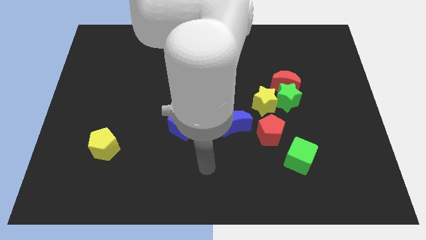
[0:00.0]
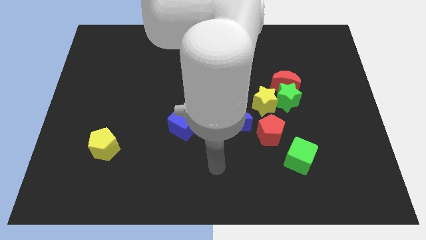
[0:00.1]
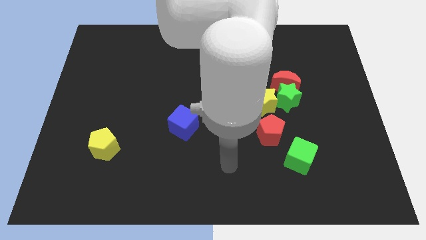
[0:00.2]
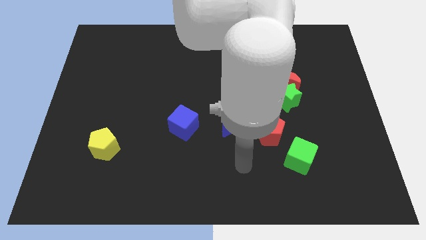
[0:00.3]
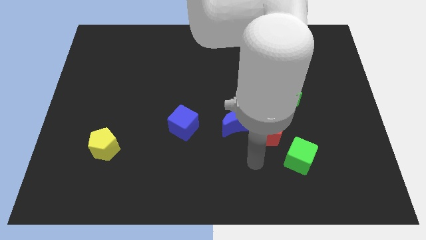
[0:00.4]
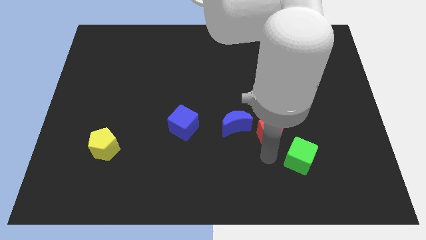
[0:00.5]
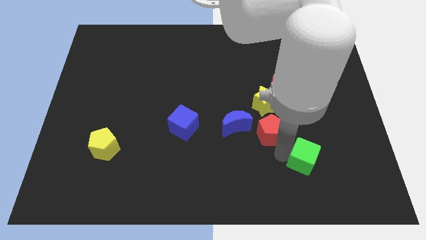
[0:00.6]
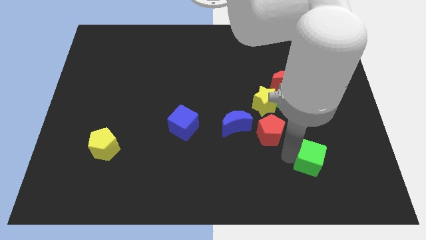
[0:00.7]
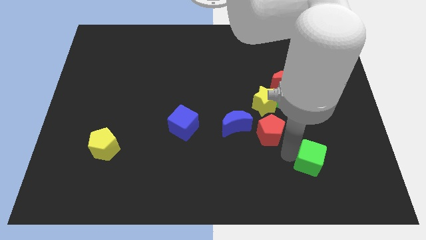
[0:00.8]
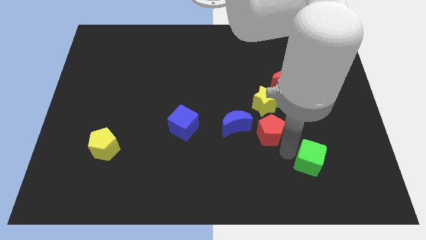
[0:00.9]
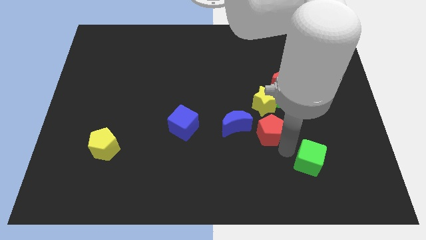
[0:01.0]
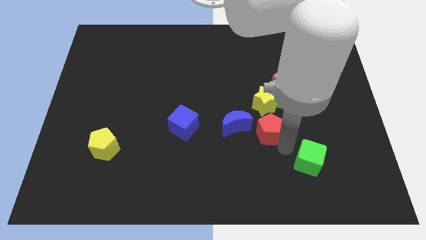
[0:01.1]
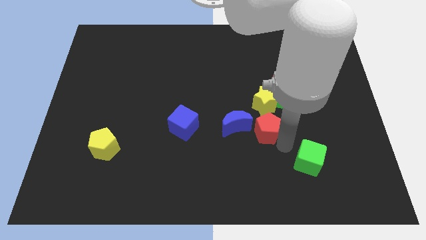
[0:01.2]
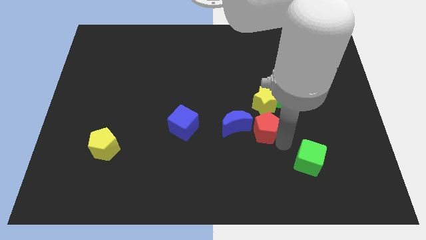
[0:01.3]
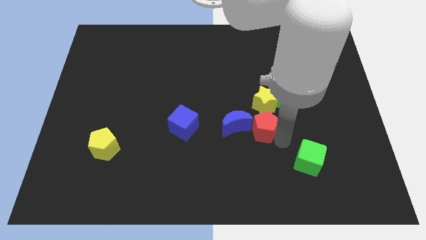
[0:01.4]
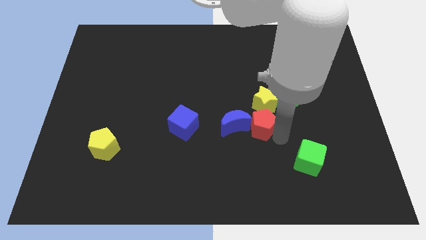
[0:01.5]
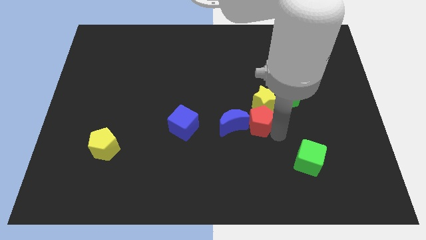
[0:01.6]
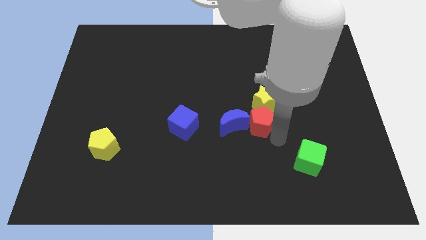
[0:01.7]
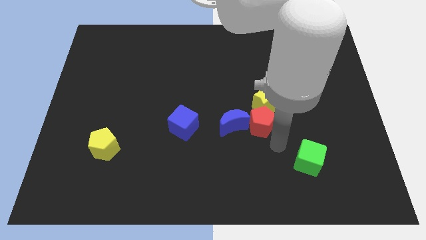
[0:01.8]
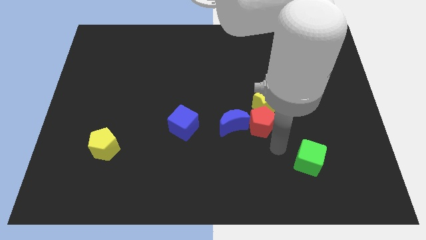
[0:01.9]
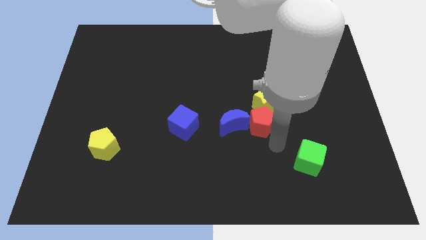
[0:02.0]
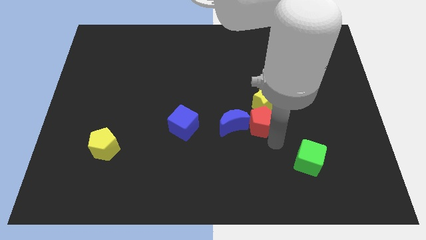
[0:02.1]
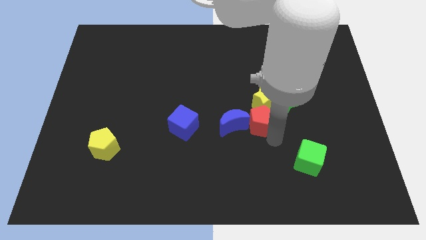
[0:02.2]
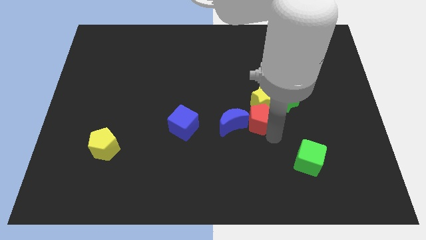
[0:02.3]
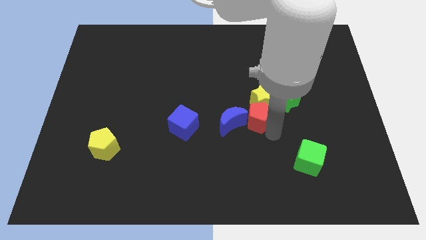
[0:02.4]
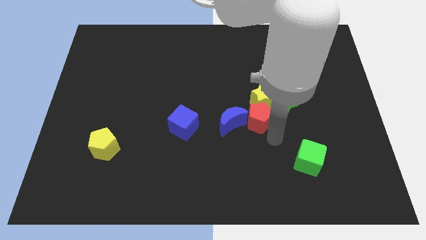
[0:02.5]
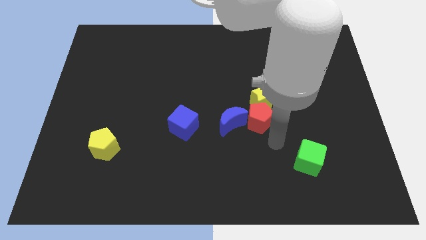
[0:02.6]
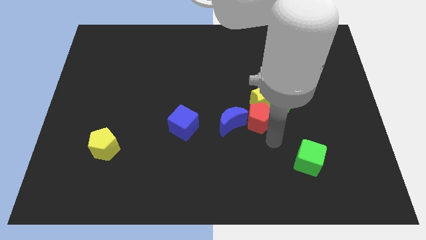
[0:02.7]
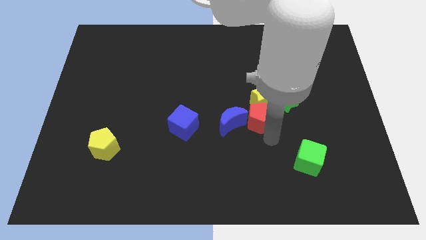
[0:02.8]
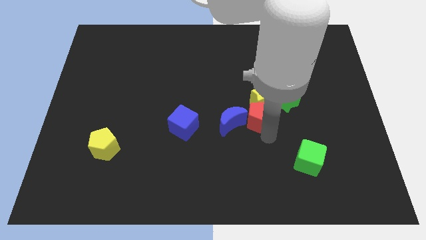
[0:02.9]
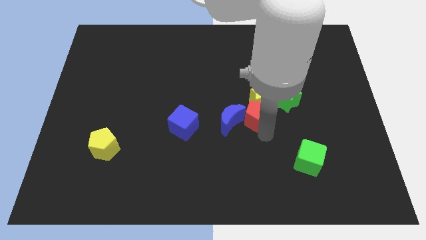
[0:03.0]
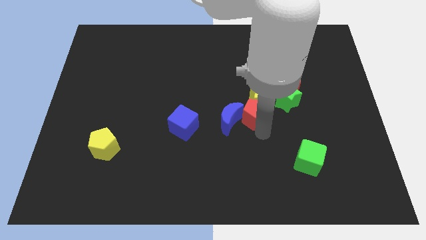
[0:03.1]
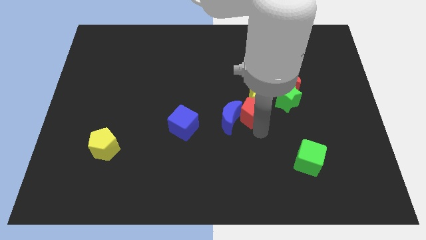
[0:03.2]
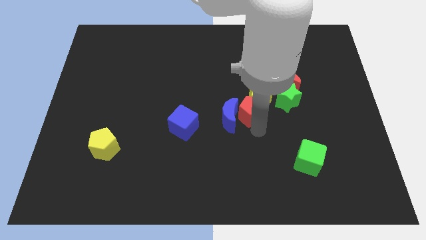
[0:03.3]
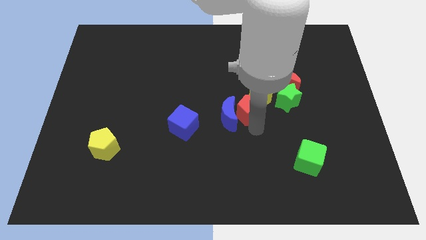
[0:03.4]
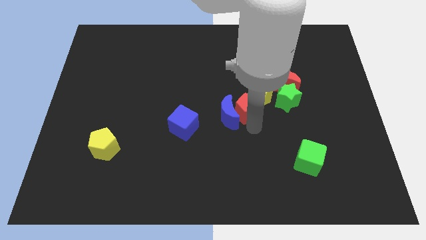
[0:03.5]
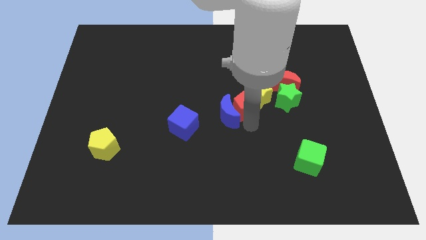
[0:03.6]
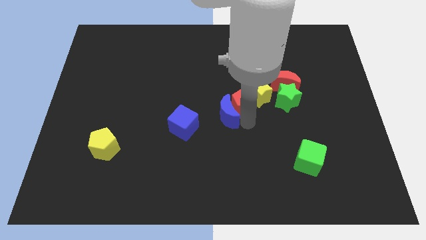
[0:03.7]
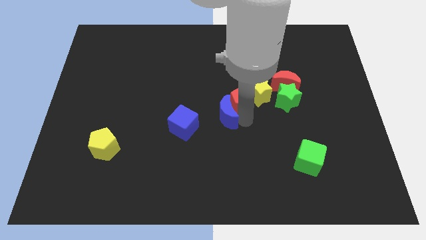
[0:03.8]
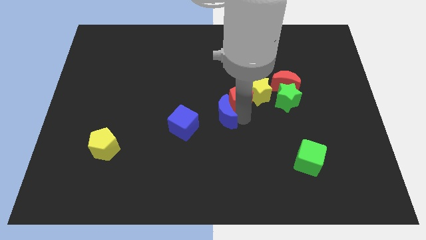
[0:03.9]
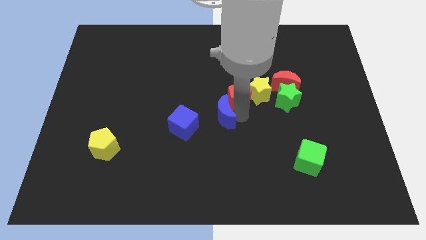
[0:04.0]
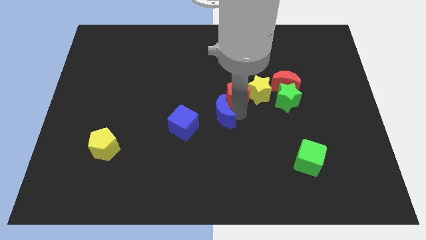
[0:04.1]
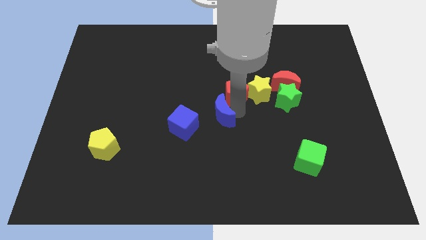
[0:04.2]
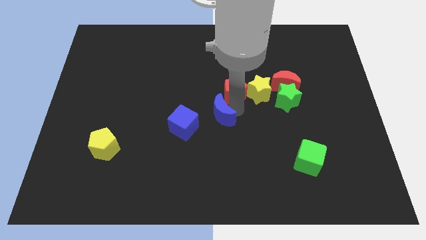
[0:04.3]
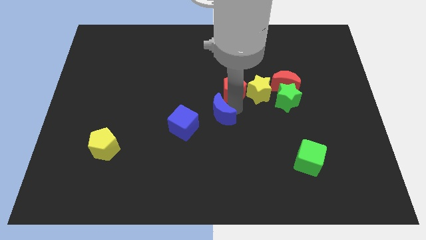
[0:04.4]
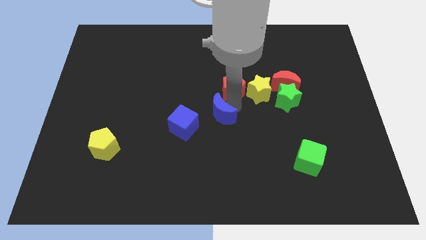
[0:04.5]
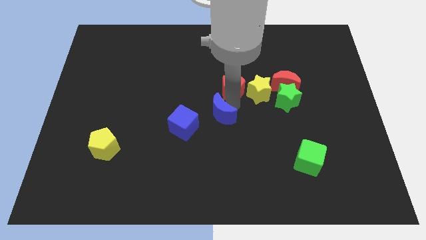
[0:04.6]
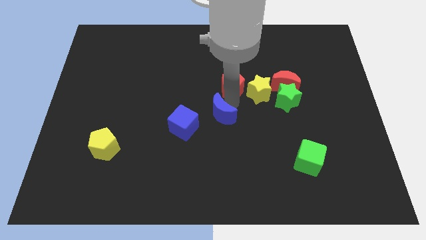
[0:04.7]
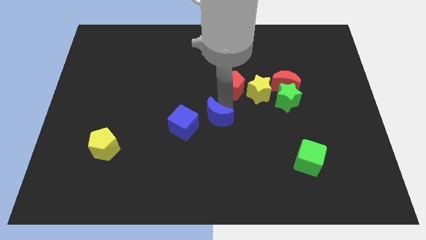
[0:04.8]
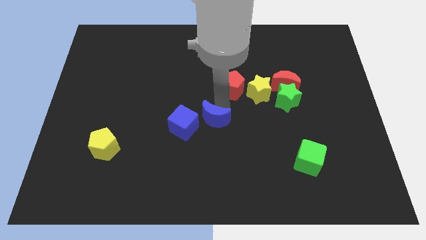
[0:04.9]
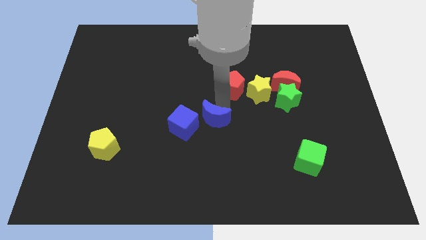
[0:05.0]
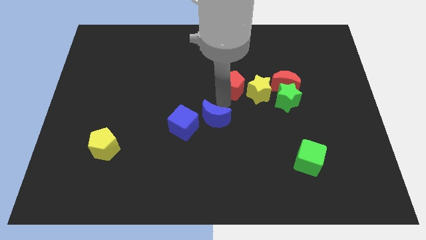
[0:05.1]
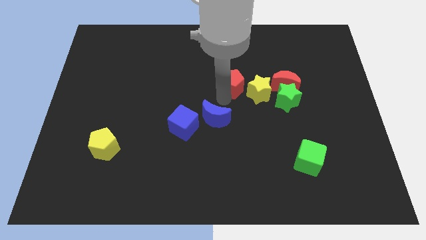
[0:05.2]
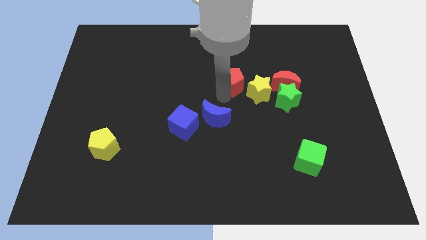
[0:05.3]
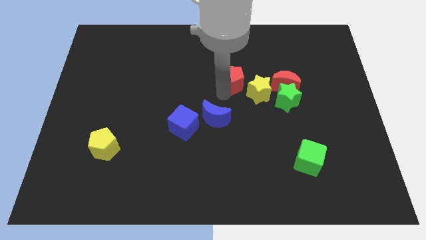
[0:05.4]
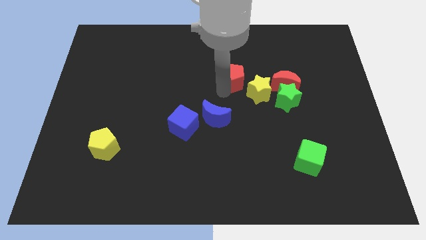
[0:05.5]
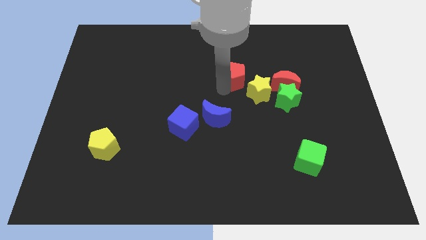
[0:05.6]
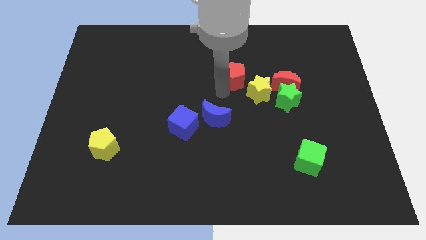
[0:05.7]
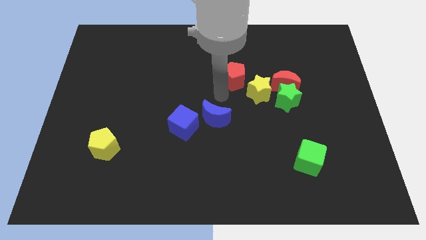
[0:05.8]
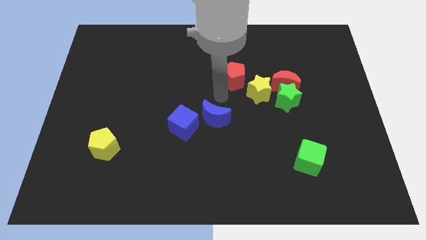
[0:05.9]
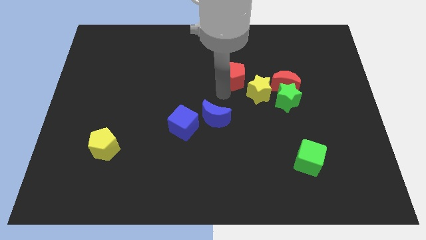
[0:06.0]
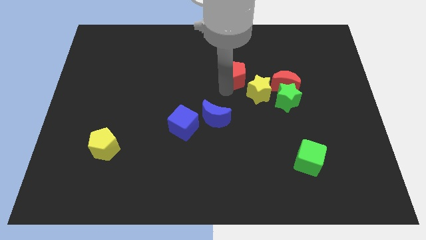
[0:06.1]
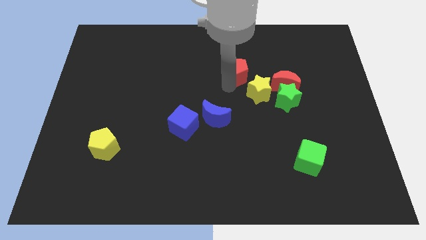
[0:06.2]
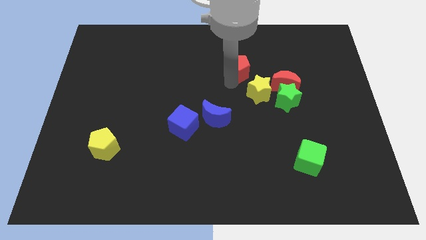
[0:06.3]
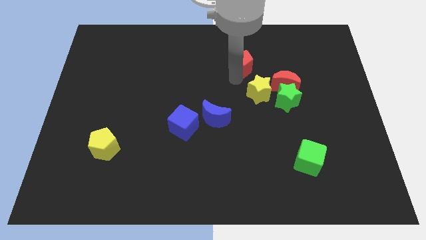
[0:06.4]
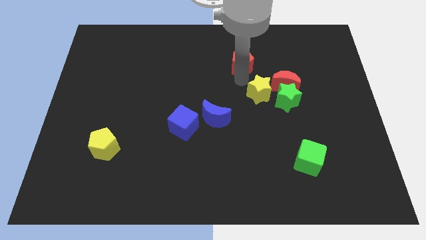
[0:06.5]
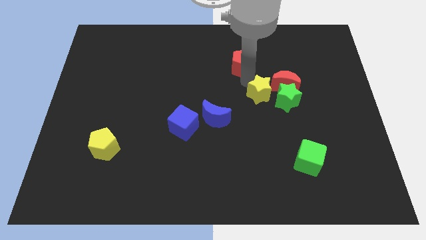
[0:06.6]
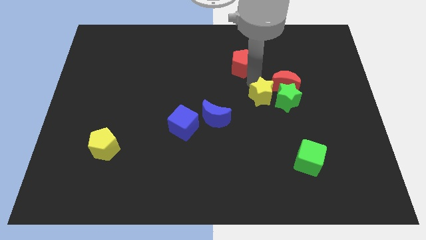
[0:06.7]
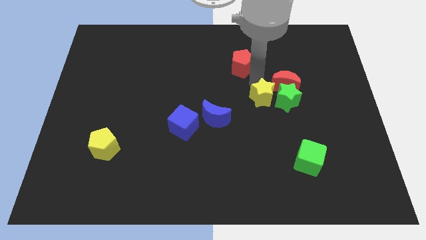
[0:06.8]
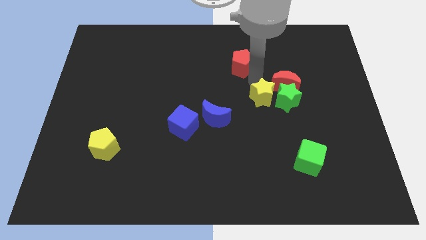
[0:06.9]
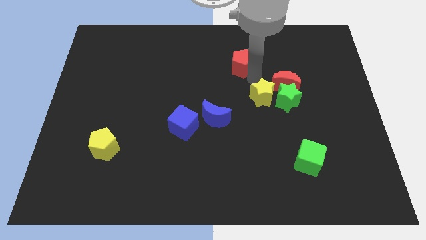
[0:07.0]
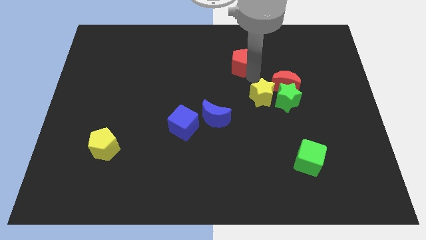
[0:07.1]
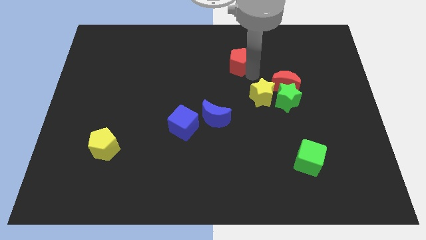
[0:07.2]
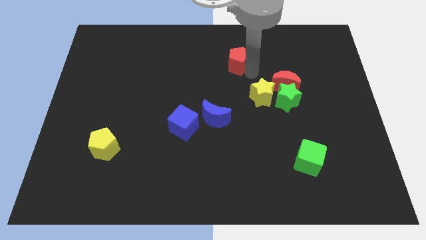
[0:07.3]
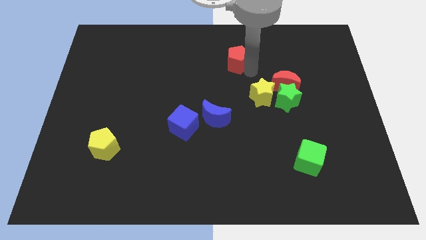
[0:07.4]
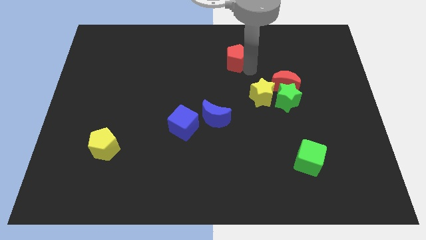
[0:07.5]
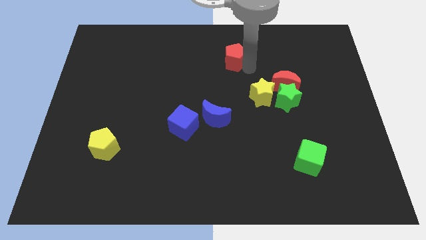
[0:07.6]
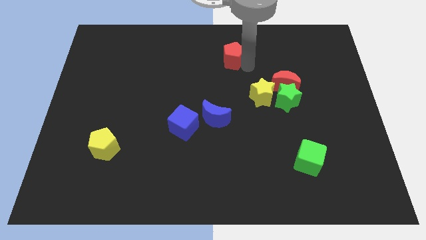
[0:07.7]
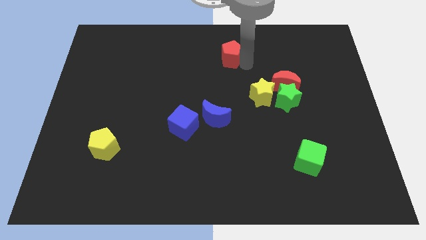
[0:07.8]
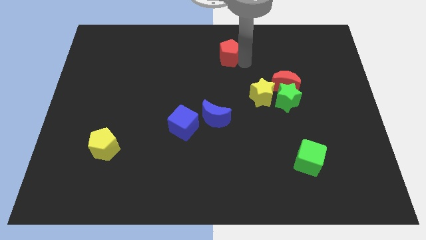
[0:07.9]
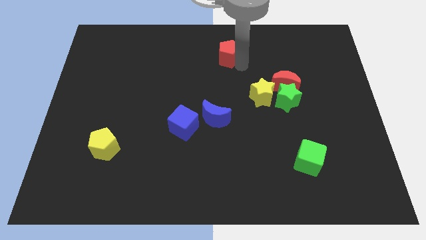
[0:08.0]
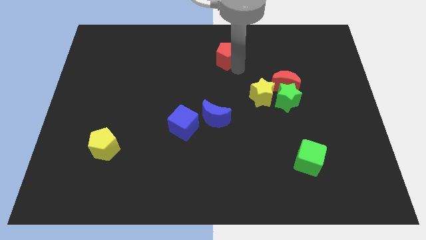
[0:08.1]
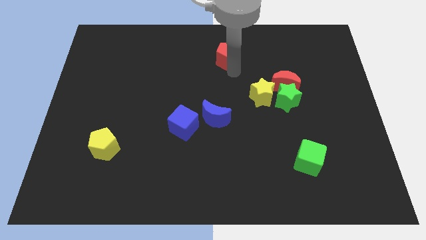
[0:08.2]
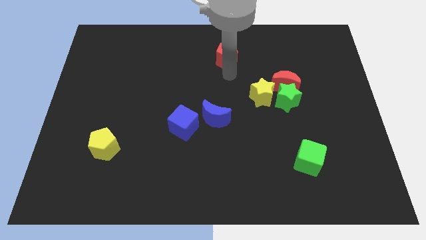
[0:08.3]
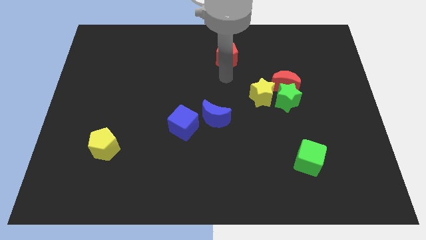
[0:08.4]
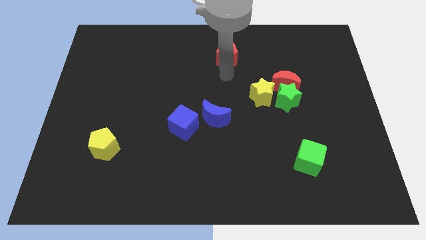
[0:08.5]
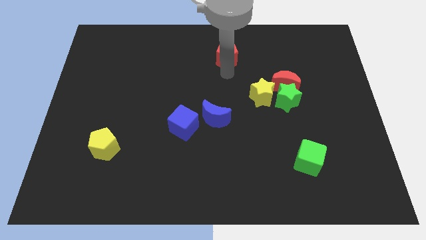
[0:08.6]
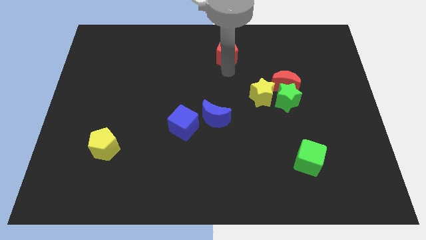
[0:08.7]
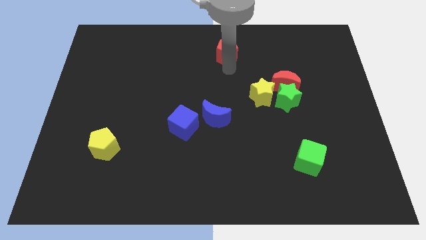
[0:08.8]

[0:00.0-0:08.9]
move the red pentagon to the top
